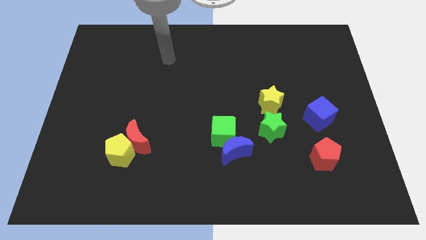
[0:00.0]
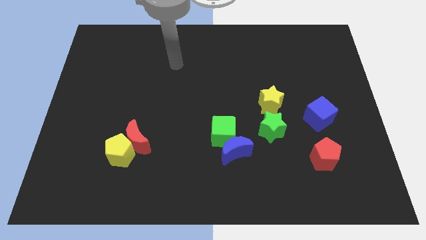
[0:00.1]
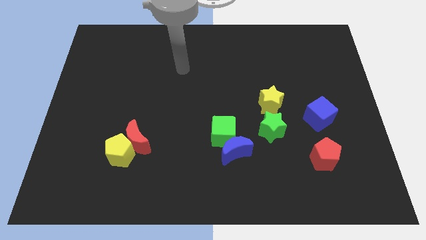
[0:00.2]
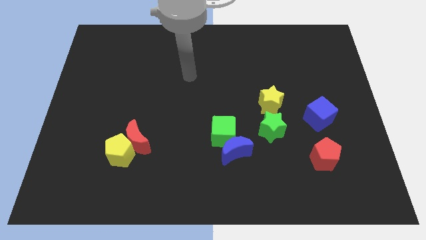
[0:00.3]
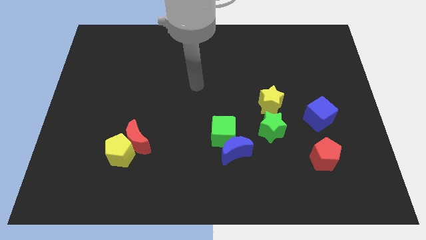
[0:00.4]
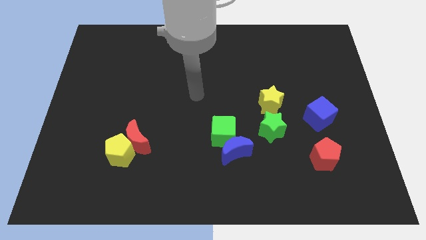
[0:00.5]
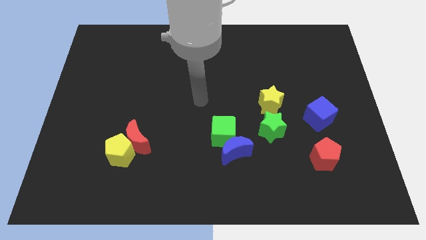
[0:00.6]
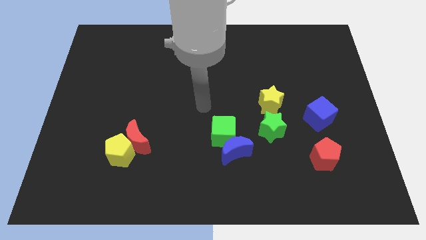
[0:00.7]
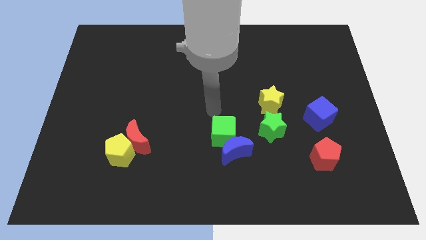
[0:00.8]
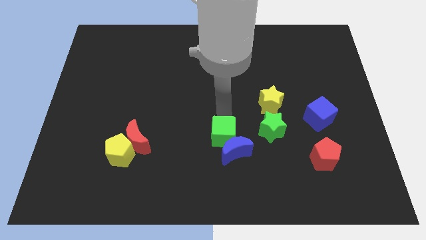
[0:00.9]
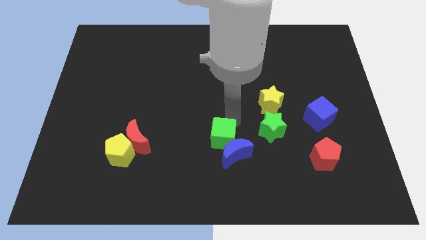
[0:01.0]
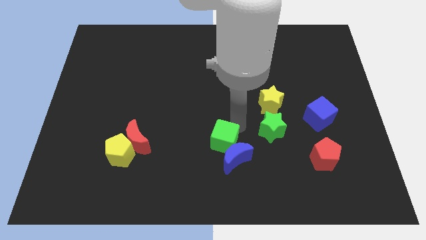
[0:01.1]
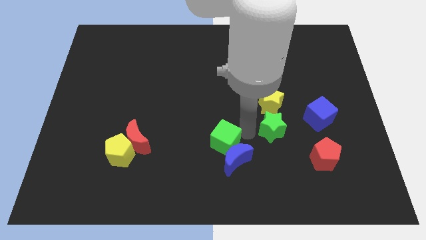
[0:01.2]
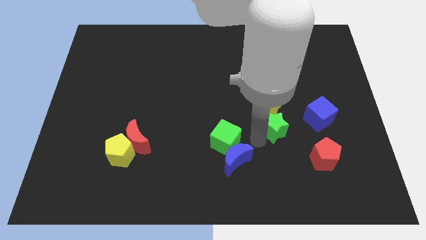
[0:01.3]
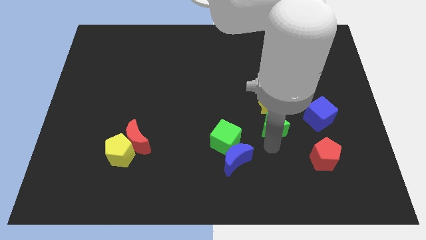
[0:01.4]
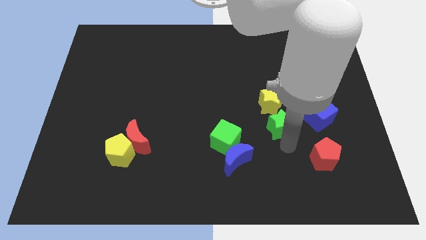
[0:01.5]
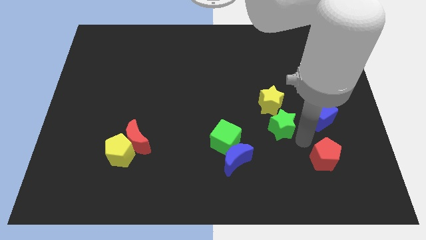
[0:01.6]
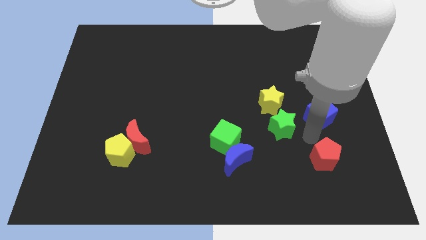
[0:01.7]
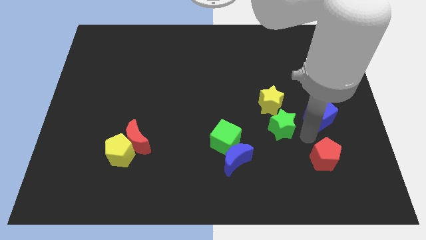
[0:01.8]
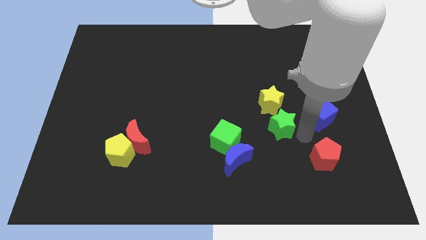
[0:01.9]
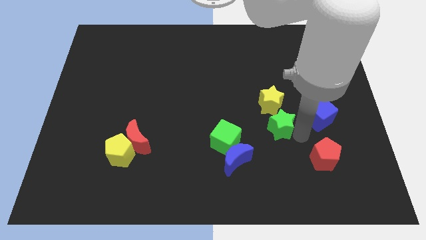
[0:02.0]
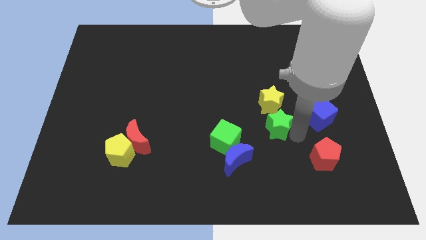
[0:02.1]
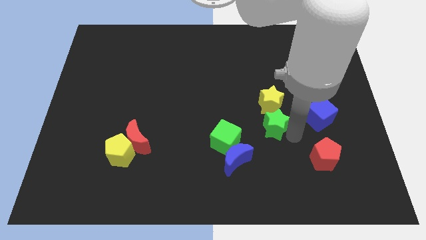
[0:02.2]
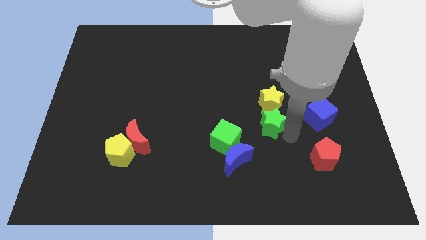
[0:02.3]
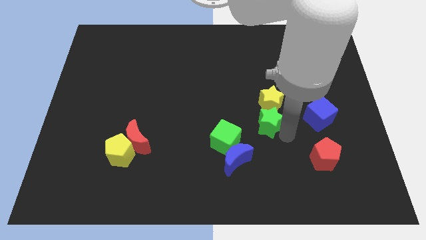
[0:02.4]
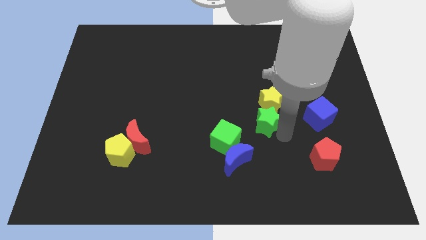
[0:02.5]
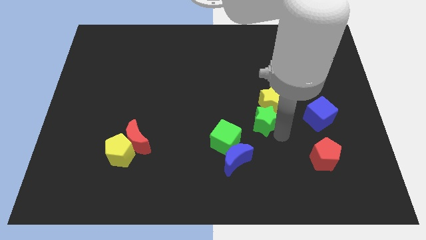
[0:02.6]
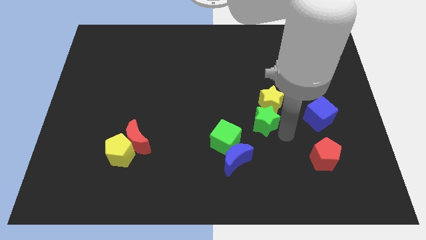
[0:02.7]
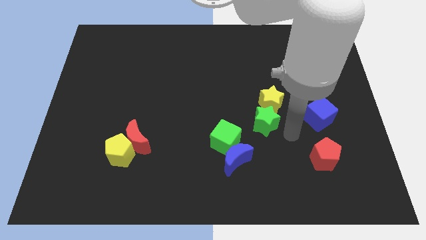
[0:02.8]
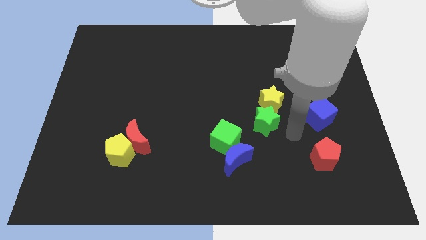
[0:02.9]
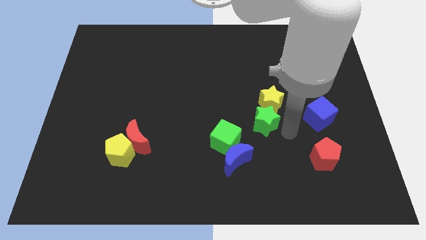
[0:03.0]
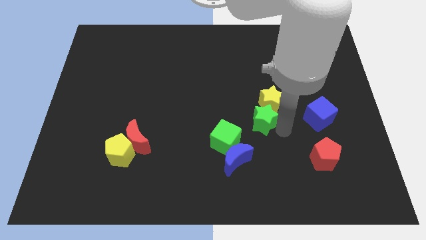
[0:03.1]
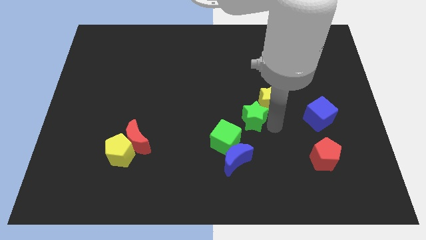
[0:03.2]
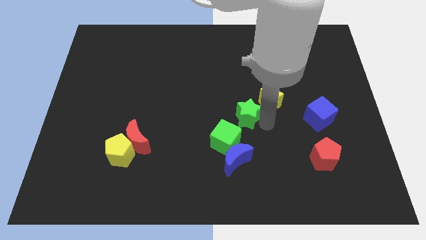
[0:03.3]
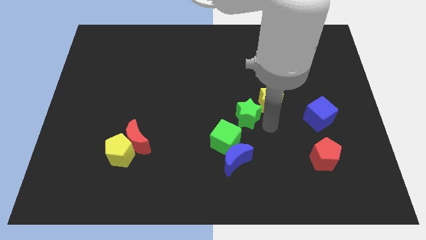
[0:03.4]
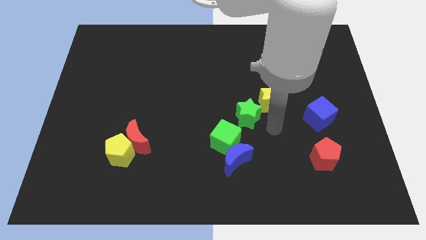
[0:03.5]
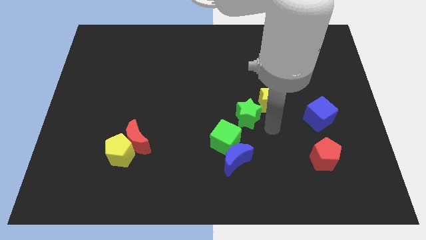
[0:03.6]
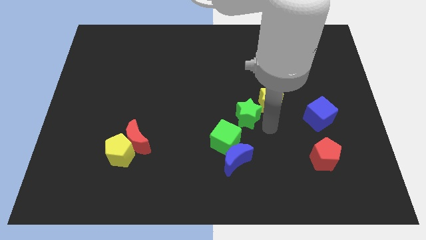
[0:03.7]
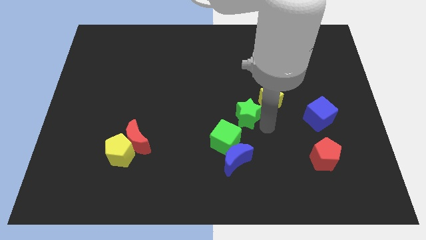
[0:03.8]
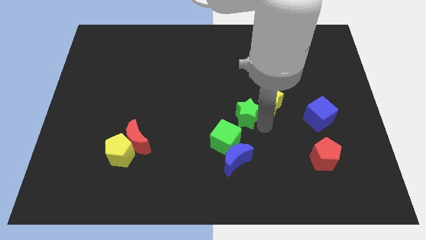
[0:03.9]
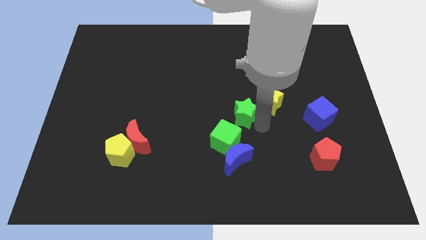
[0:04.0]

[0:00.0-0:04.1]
slightly push the green star diagonally up and left

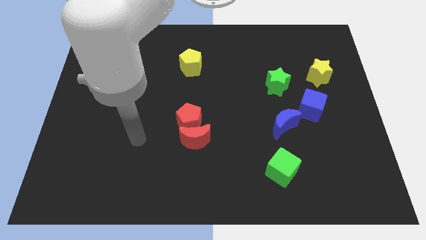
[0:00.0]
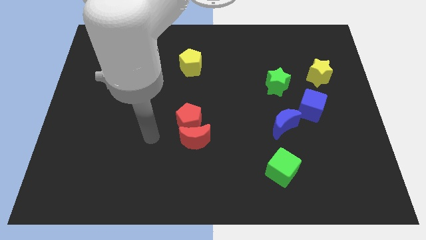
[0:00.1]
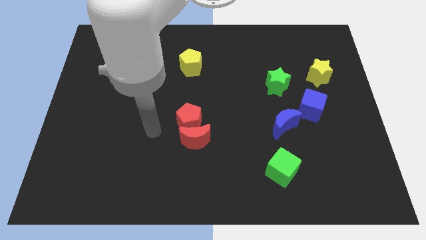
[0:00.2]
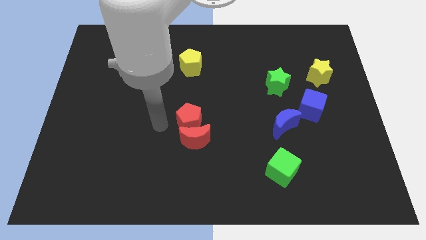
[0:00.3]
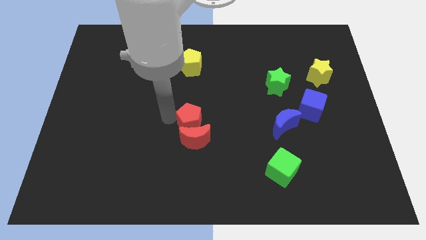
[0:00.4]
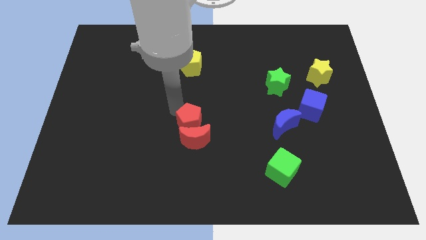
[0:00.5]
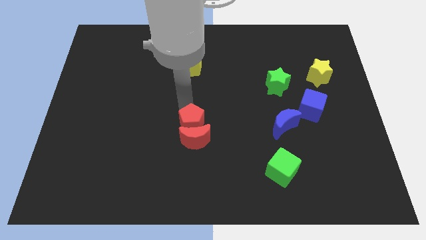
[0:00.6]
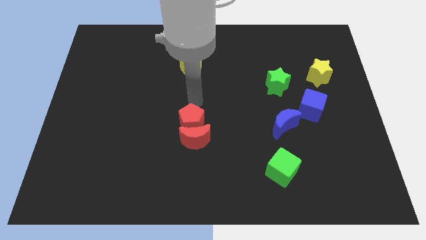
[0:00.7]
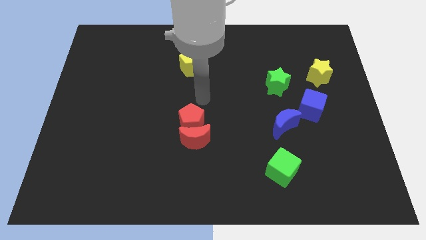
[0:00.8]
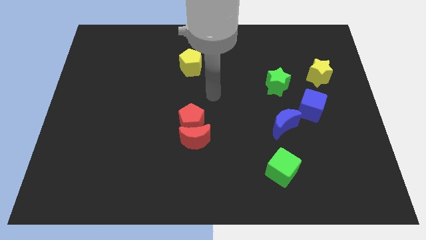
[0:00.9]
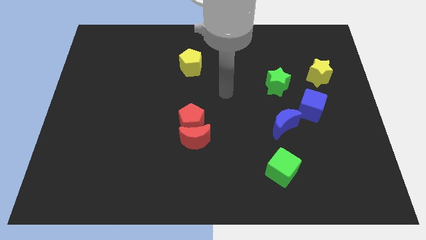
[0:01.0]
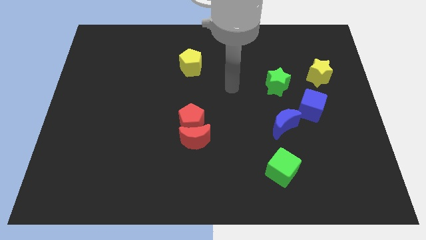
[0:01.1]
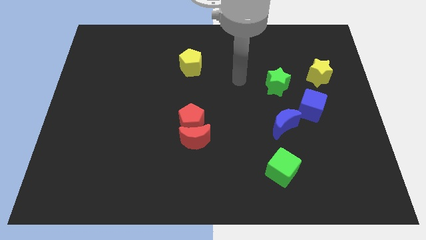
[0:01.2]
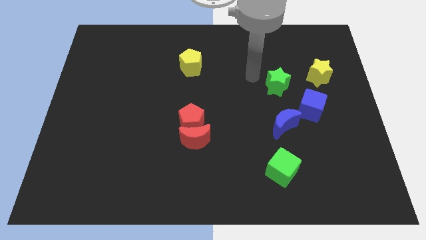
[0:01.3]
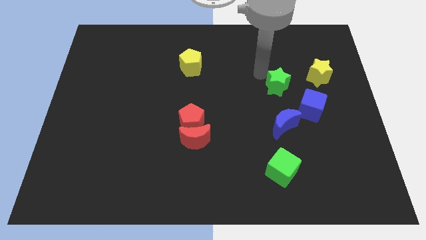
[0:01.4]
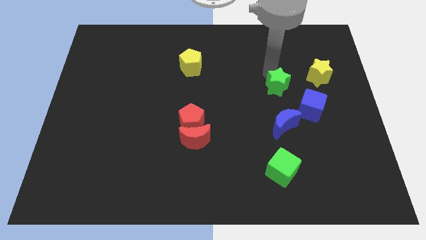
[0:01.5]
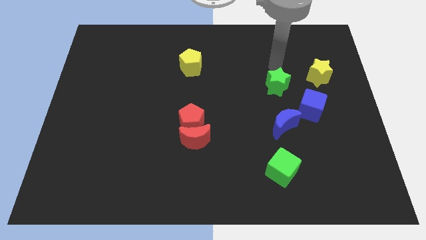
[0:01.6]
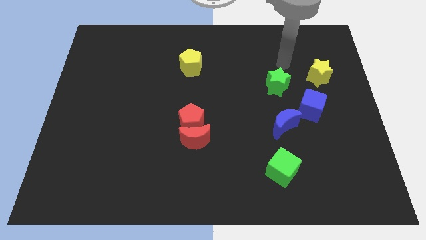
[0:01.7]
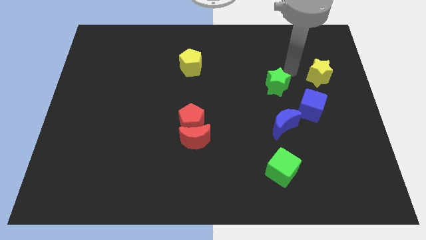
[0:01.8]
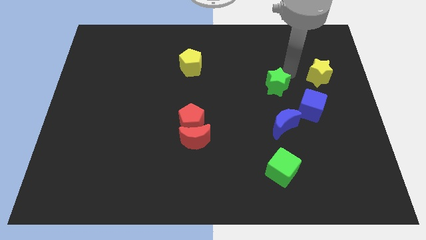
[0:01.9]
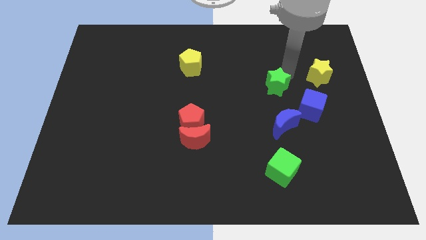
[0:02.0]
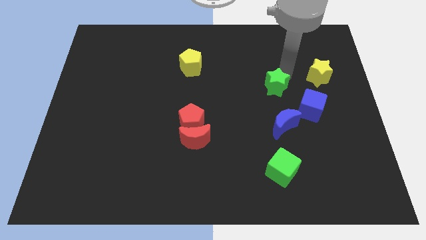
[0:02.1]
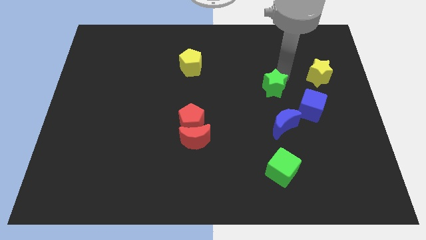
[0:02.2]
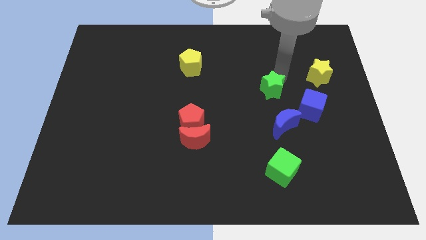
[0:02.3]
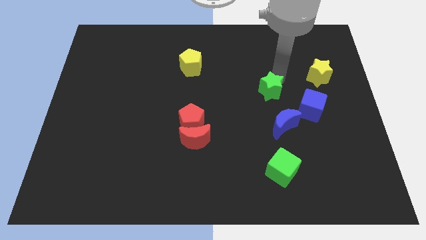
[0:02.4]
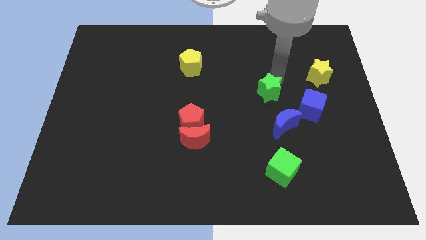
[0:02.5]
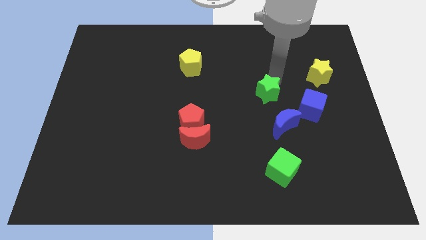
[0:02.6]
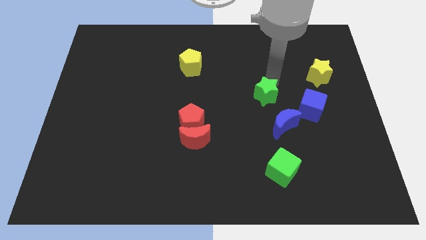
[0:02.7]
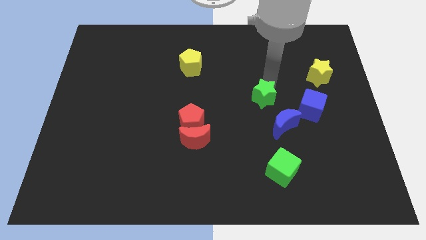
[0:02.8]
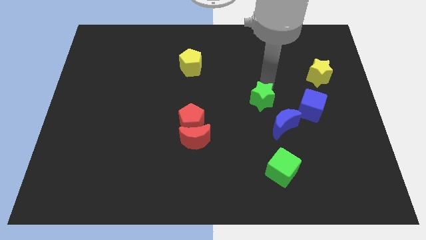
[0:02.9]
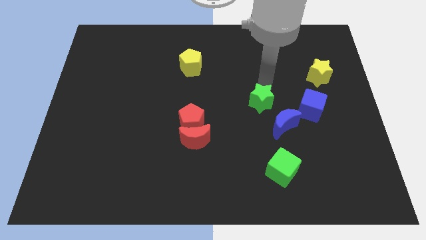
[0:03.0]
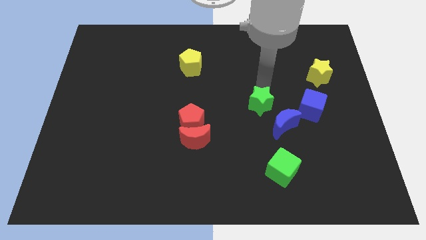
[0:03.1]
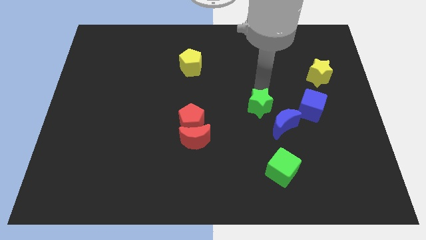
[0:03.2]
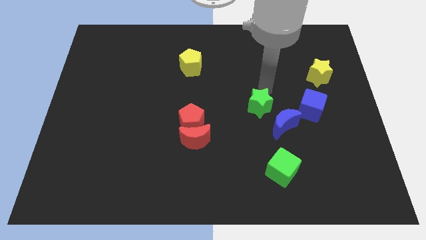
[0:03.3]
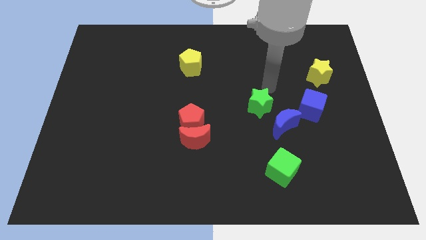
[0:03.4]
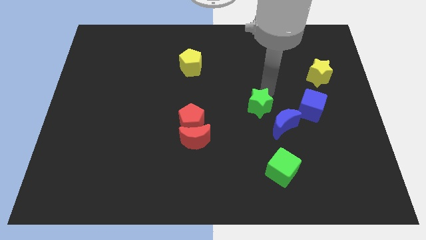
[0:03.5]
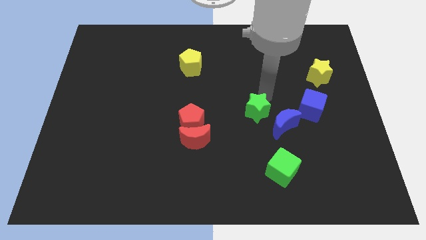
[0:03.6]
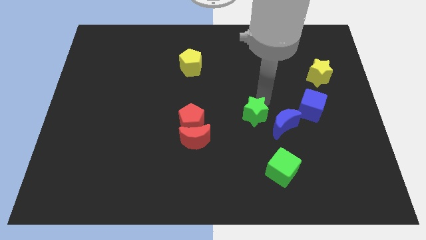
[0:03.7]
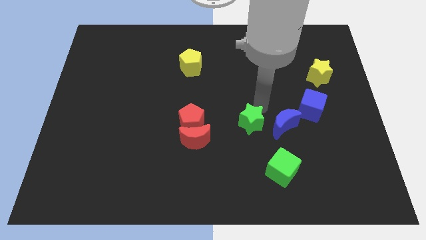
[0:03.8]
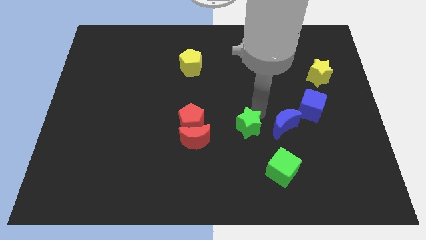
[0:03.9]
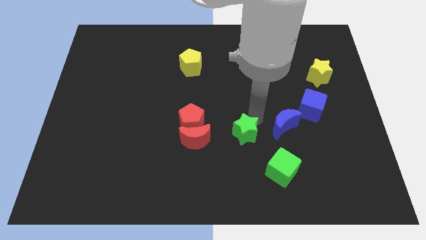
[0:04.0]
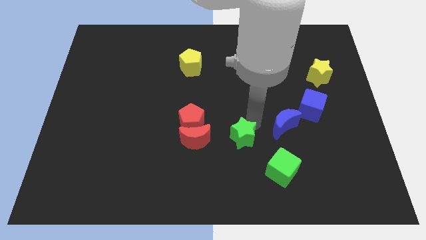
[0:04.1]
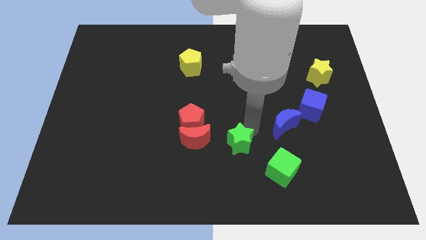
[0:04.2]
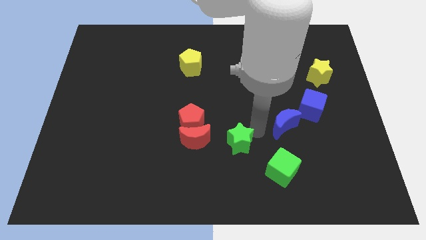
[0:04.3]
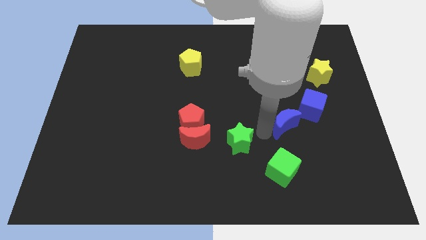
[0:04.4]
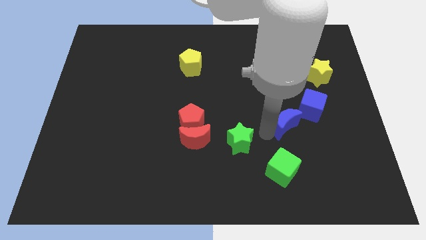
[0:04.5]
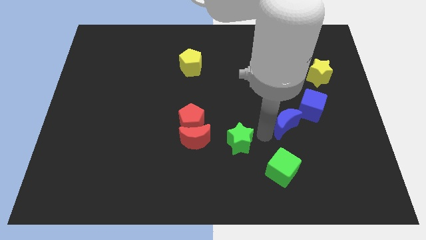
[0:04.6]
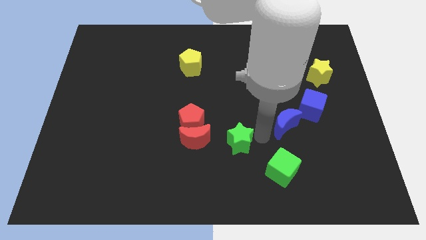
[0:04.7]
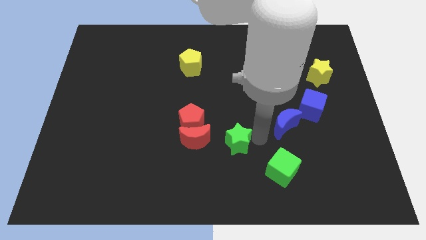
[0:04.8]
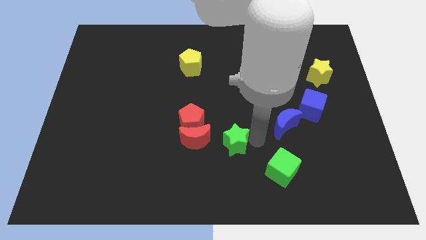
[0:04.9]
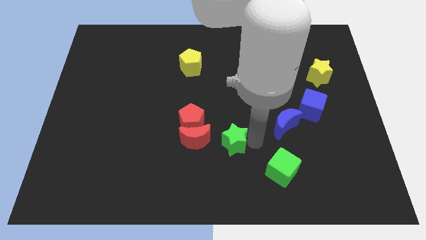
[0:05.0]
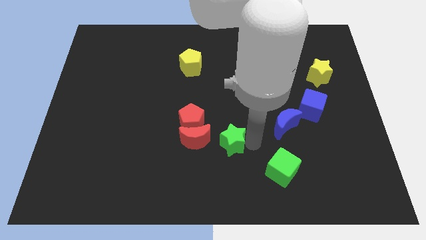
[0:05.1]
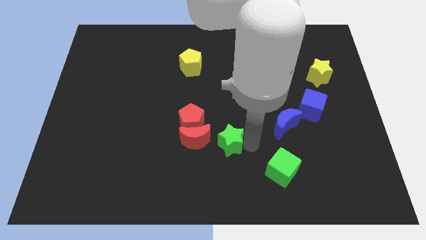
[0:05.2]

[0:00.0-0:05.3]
slide the green star down and then left
